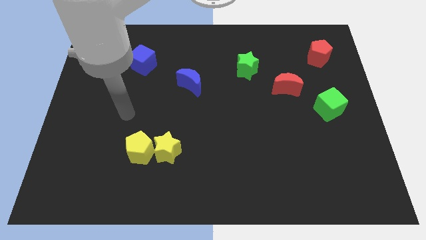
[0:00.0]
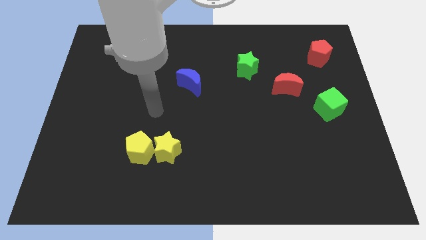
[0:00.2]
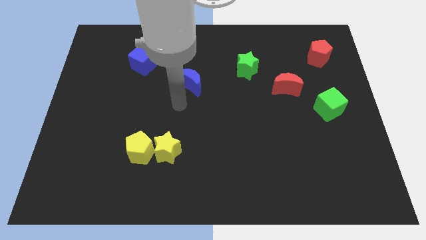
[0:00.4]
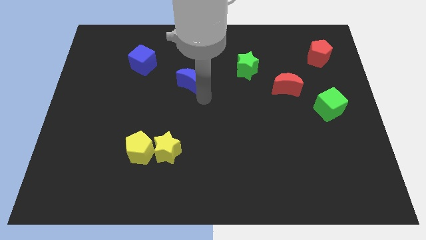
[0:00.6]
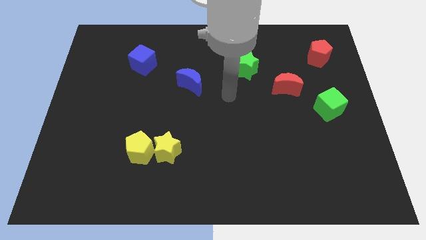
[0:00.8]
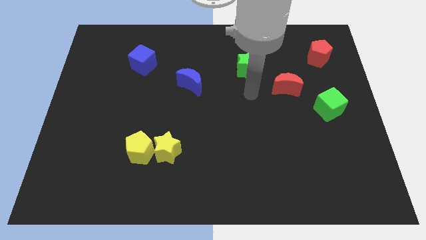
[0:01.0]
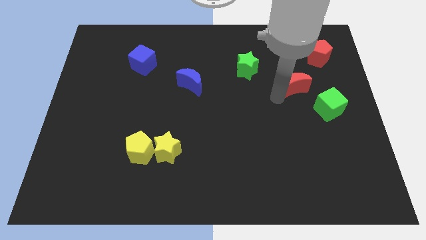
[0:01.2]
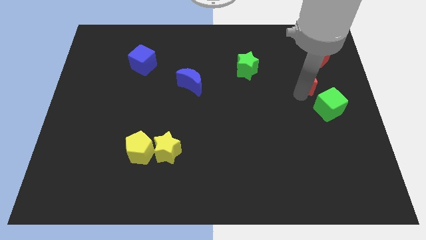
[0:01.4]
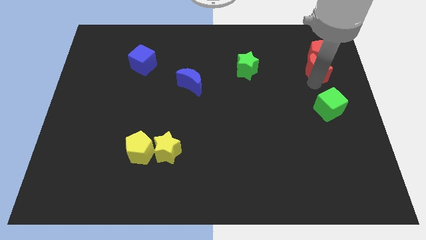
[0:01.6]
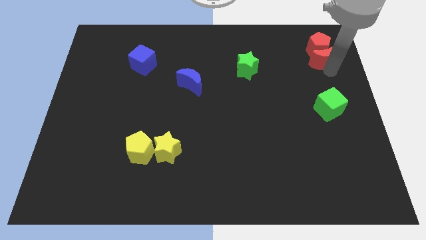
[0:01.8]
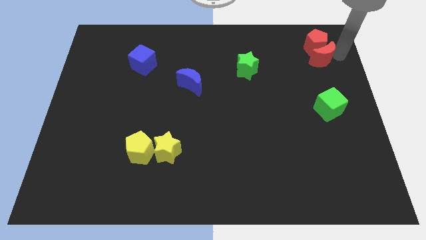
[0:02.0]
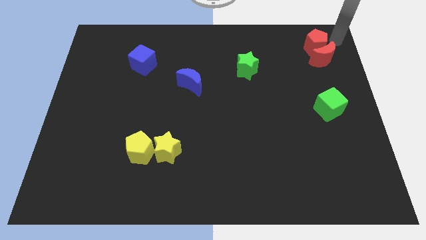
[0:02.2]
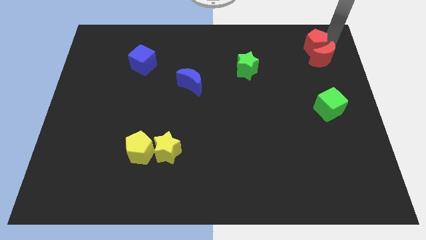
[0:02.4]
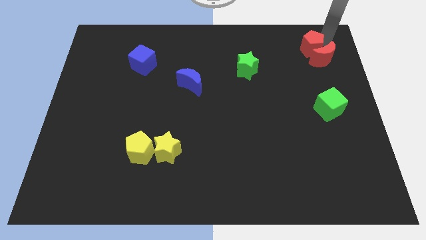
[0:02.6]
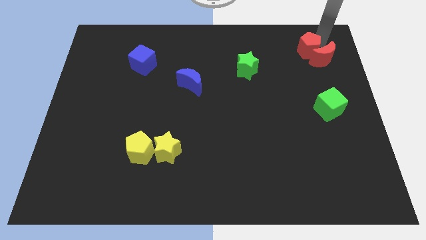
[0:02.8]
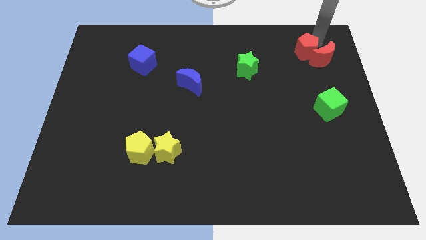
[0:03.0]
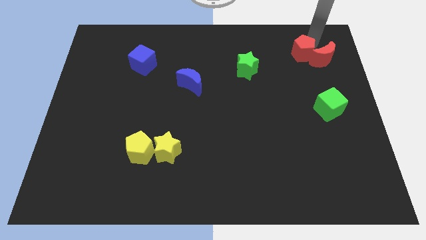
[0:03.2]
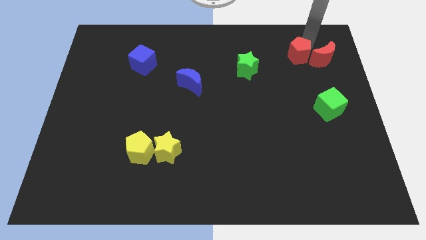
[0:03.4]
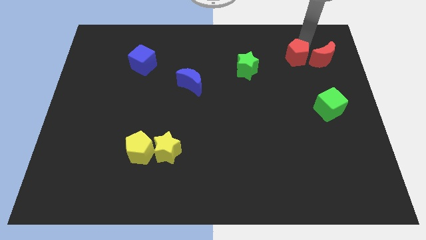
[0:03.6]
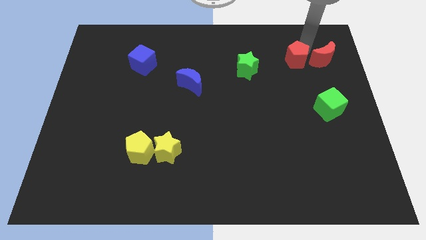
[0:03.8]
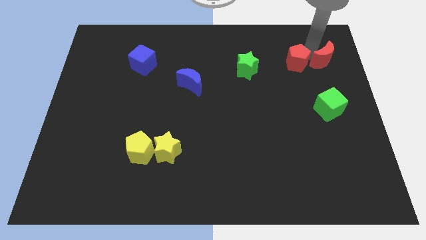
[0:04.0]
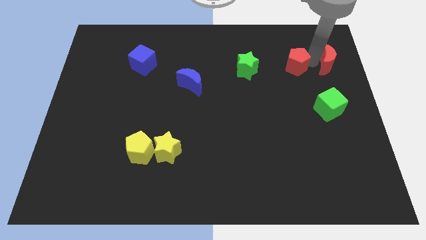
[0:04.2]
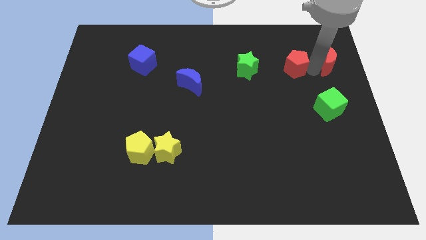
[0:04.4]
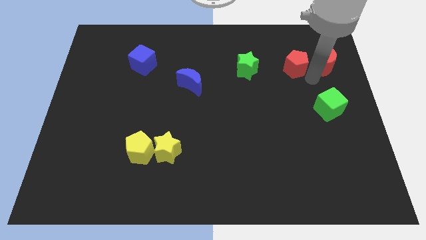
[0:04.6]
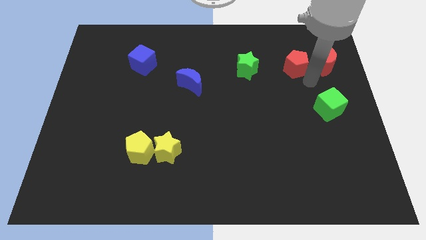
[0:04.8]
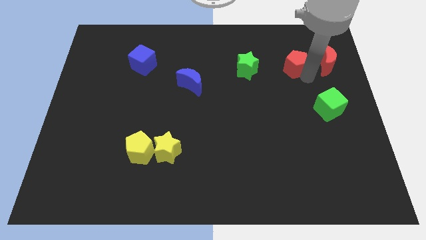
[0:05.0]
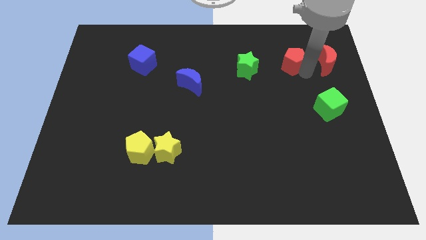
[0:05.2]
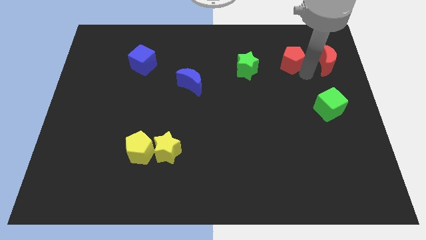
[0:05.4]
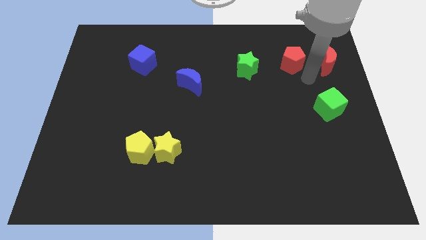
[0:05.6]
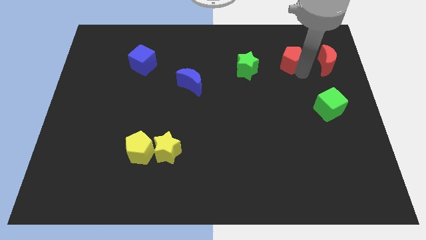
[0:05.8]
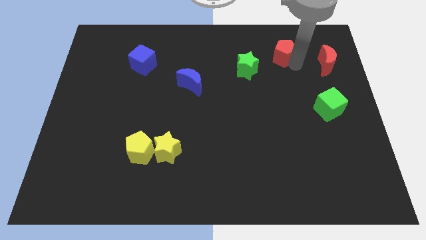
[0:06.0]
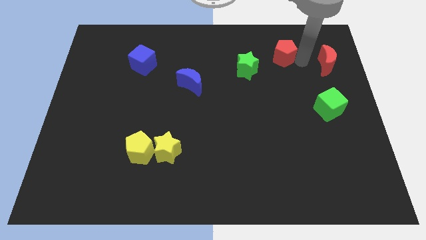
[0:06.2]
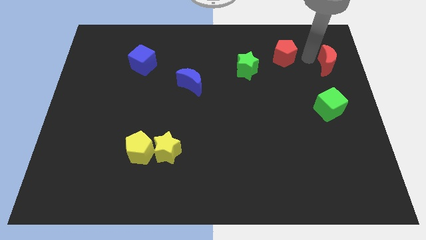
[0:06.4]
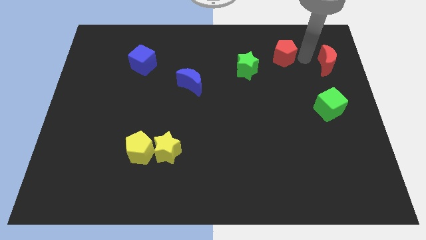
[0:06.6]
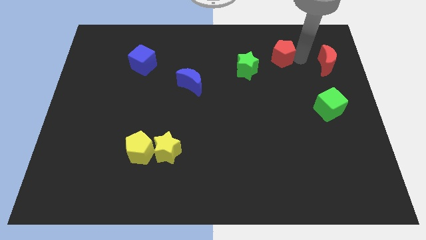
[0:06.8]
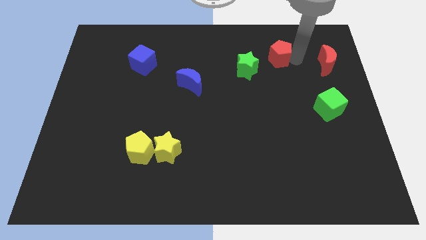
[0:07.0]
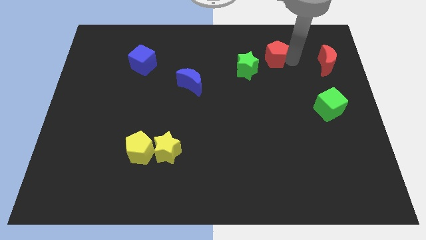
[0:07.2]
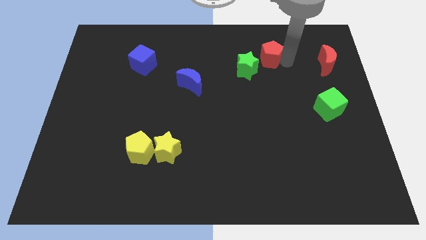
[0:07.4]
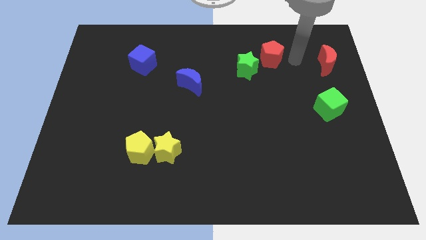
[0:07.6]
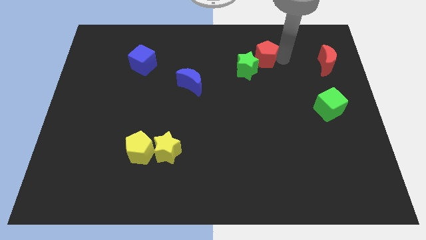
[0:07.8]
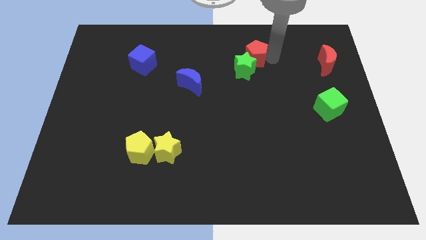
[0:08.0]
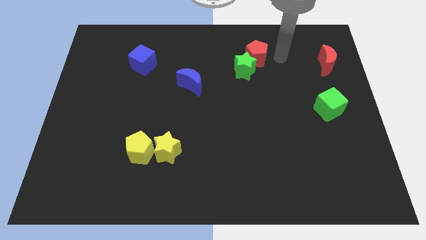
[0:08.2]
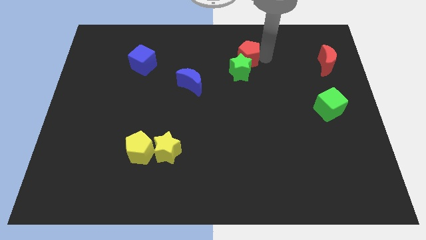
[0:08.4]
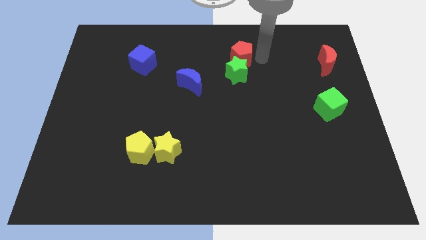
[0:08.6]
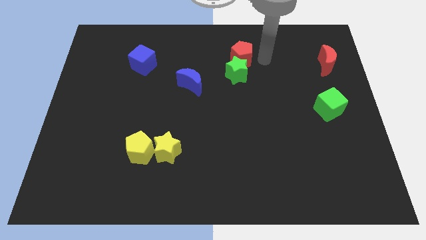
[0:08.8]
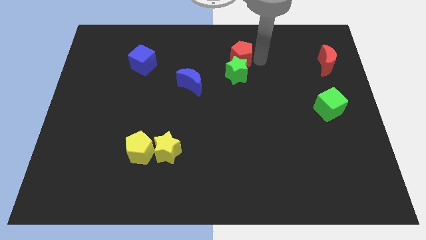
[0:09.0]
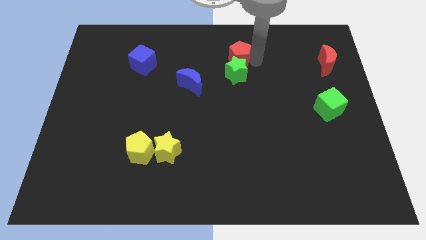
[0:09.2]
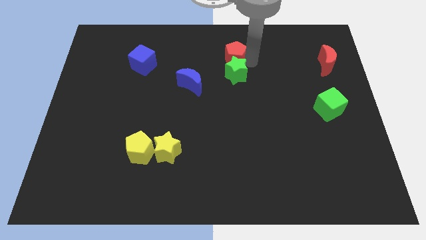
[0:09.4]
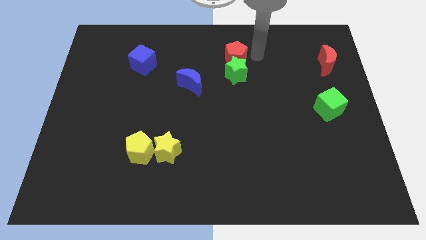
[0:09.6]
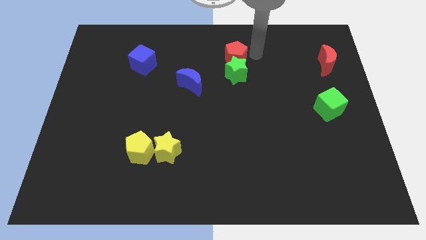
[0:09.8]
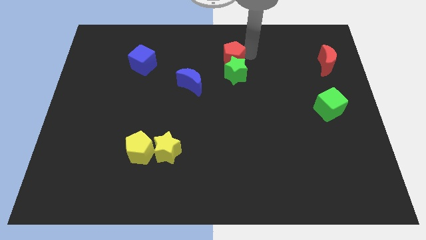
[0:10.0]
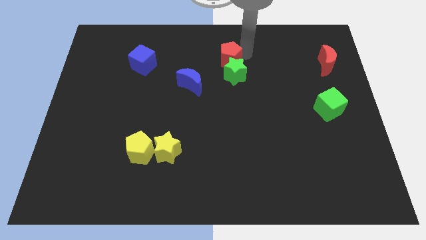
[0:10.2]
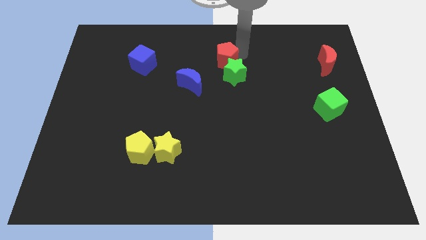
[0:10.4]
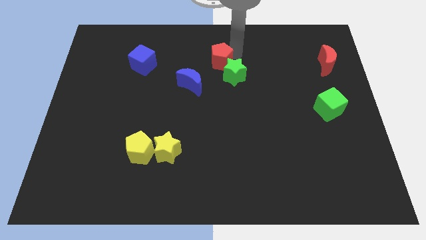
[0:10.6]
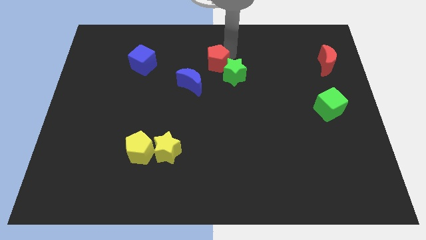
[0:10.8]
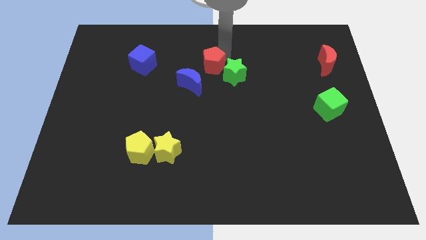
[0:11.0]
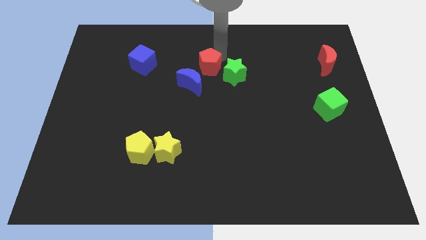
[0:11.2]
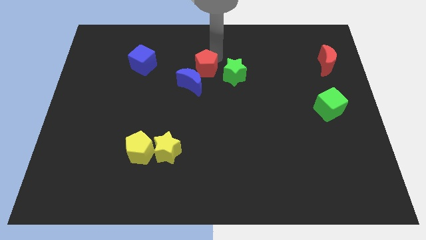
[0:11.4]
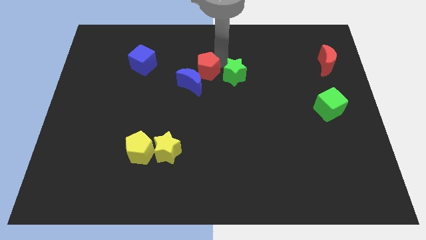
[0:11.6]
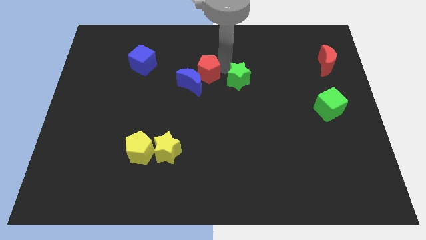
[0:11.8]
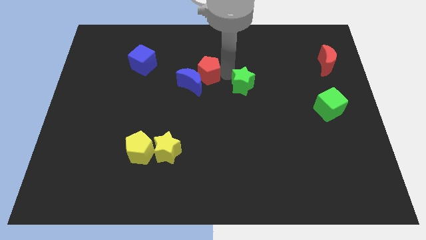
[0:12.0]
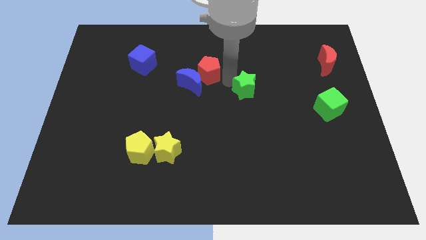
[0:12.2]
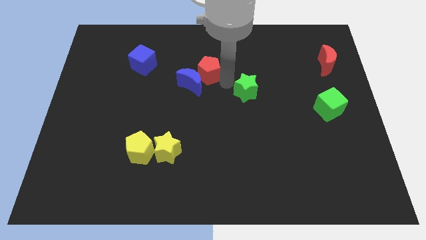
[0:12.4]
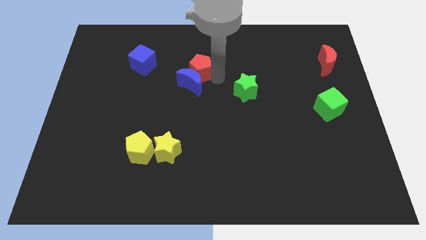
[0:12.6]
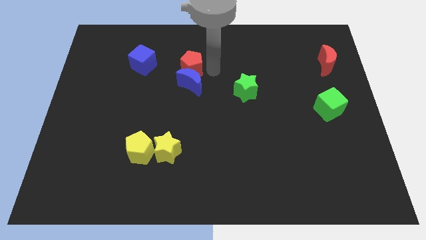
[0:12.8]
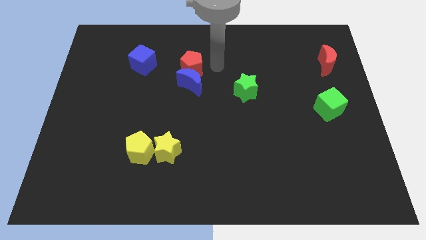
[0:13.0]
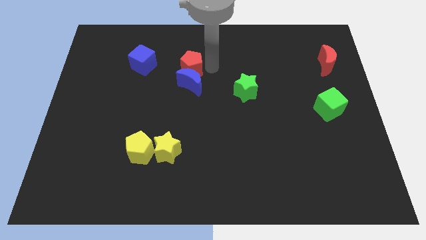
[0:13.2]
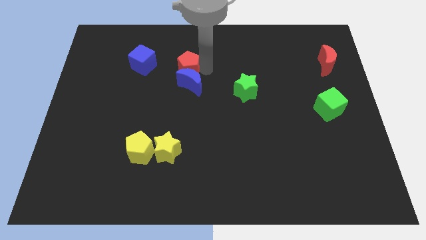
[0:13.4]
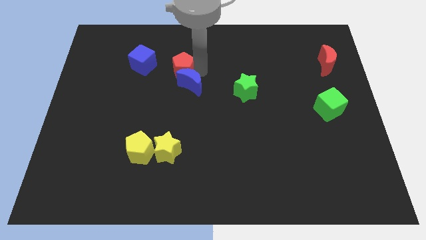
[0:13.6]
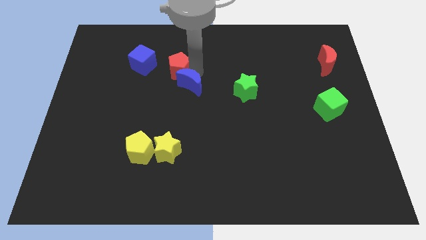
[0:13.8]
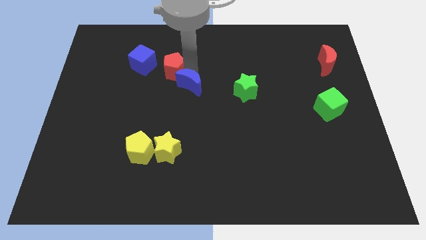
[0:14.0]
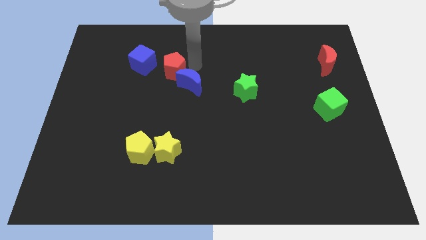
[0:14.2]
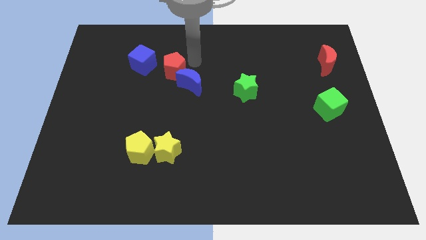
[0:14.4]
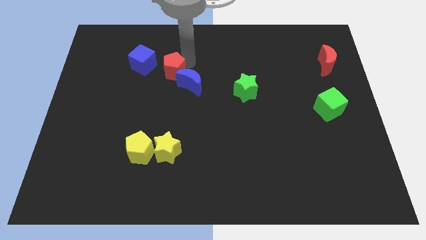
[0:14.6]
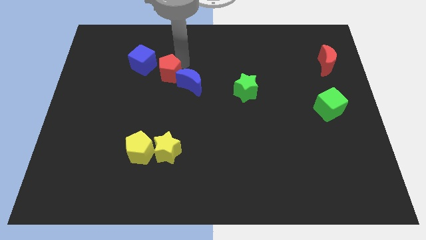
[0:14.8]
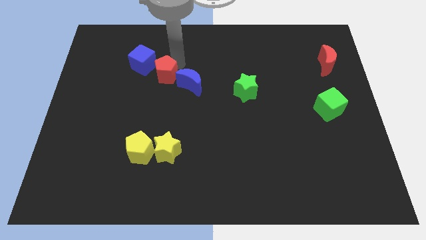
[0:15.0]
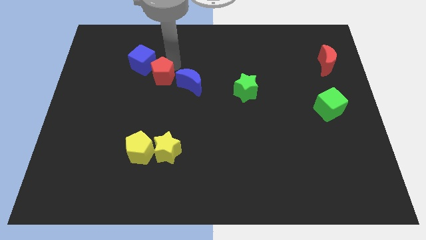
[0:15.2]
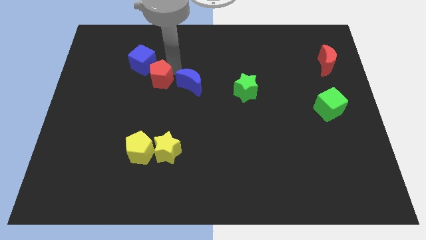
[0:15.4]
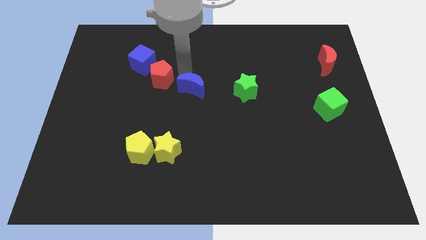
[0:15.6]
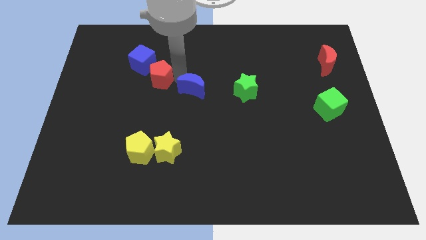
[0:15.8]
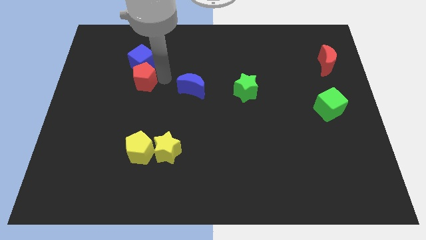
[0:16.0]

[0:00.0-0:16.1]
put the red pentagon diagonally down and to the left of the blue cube
